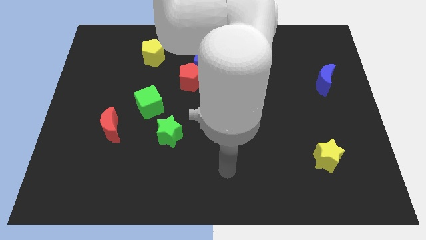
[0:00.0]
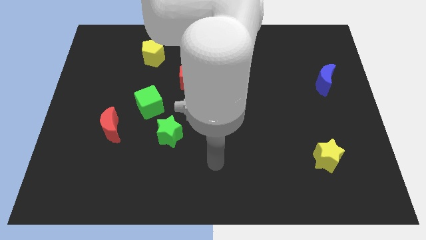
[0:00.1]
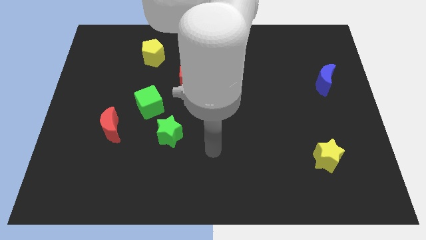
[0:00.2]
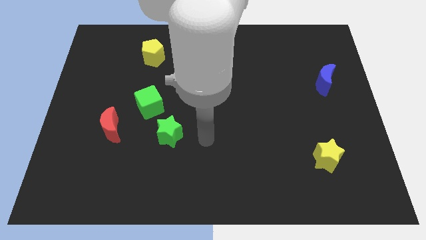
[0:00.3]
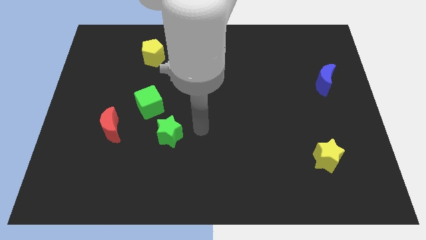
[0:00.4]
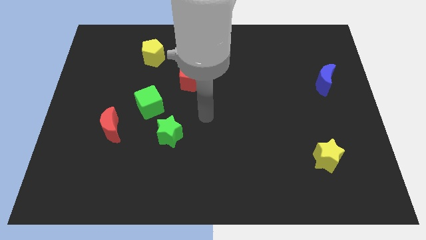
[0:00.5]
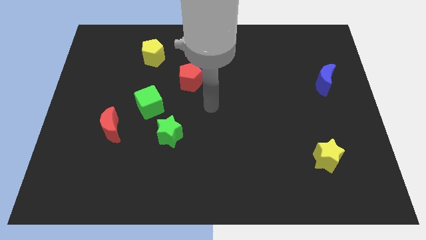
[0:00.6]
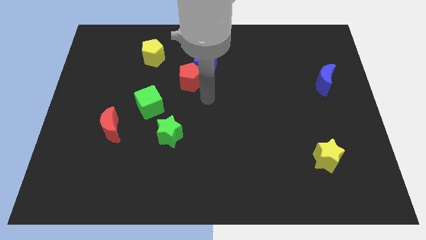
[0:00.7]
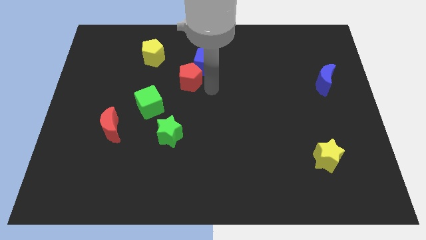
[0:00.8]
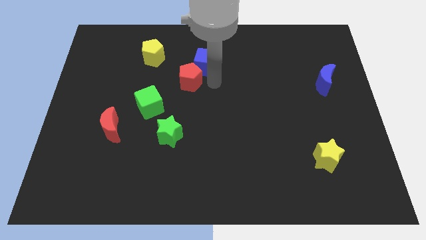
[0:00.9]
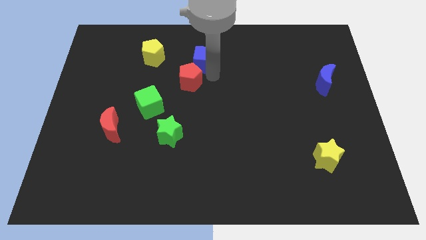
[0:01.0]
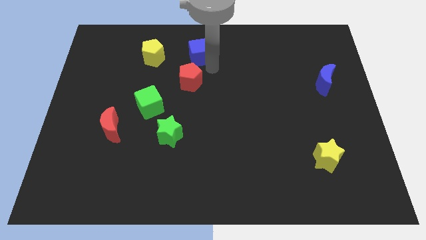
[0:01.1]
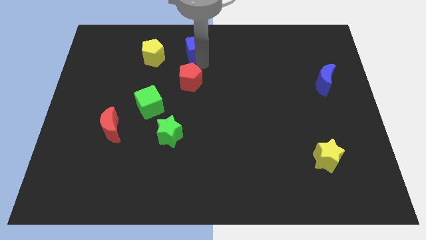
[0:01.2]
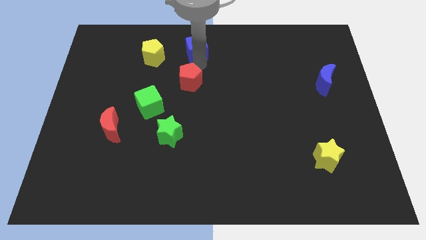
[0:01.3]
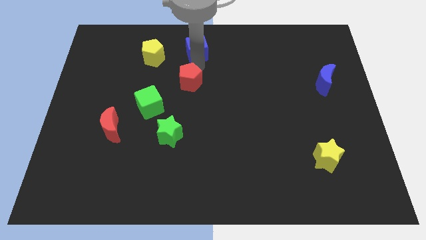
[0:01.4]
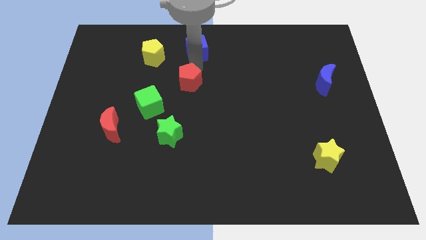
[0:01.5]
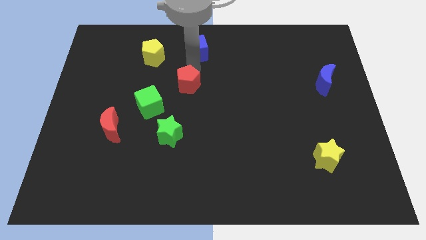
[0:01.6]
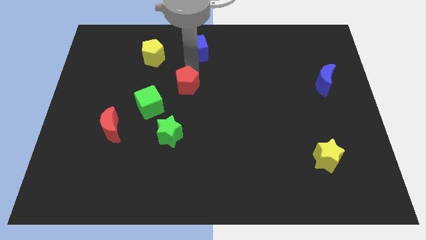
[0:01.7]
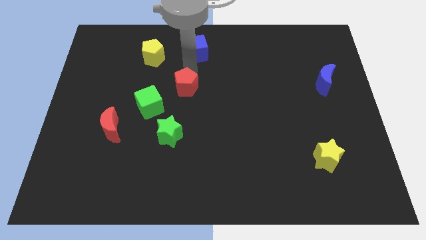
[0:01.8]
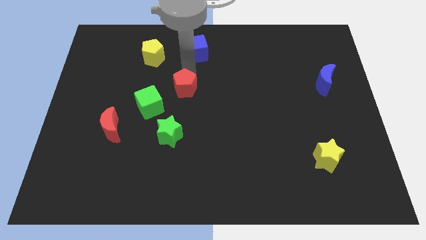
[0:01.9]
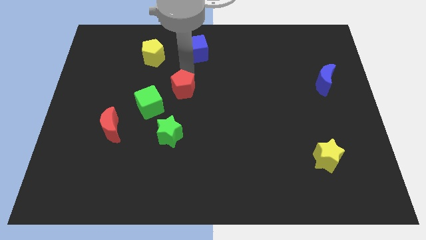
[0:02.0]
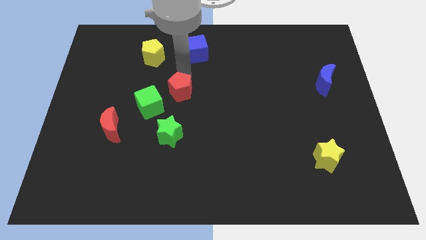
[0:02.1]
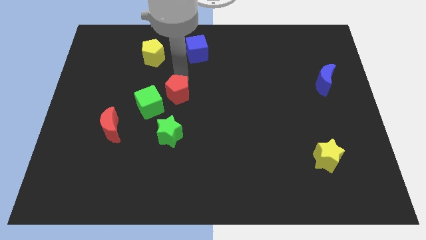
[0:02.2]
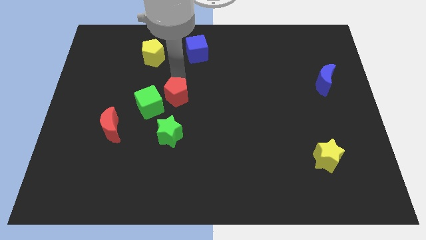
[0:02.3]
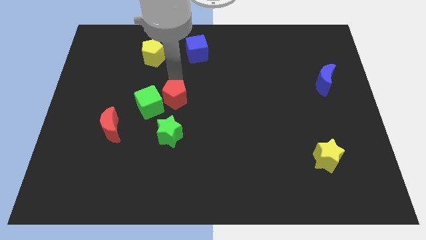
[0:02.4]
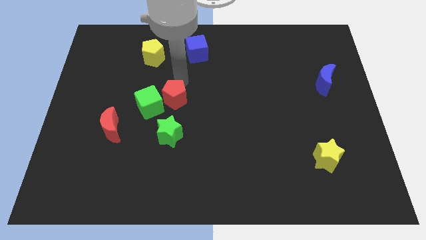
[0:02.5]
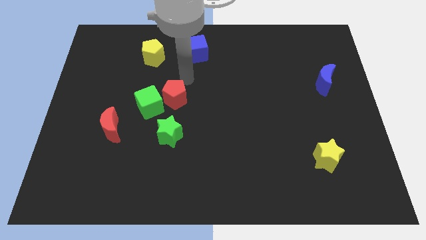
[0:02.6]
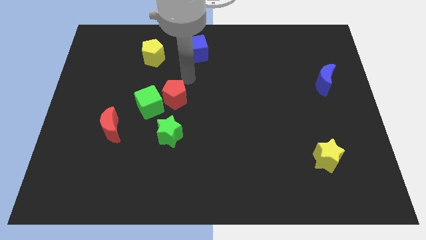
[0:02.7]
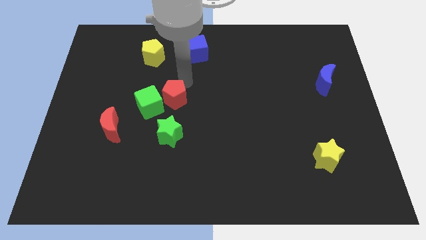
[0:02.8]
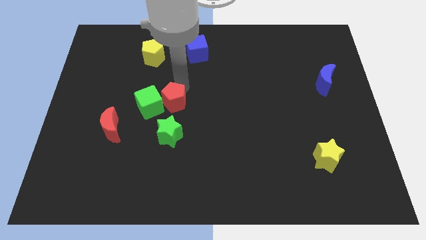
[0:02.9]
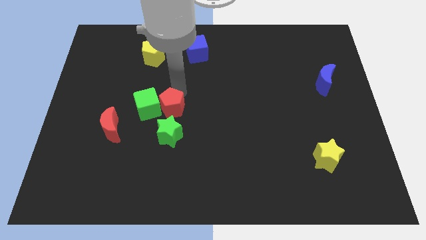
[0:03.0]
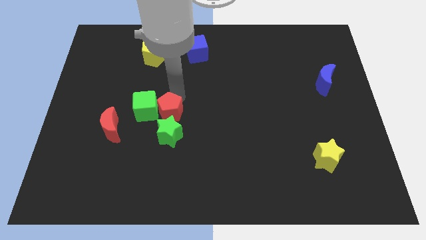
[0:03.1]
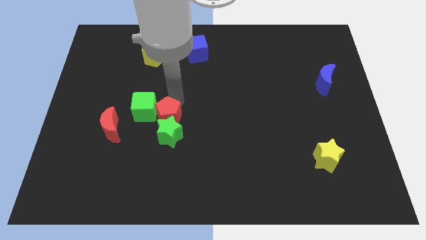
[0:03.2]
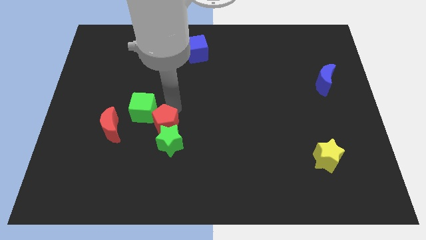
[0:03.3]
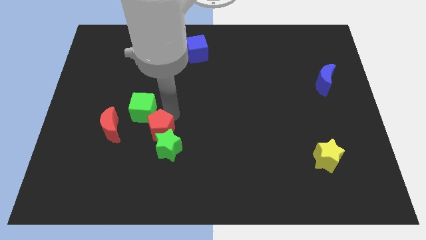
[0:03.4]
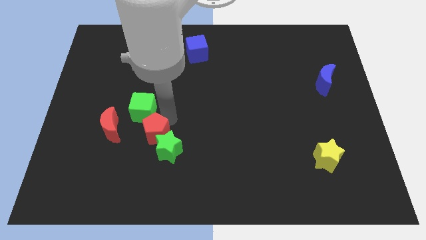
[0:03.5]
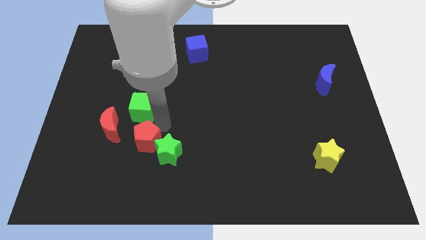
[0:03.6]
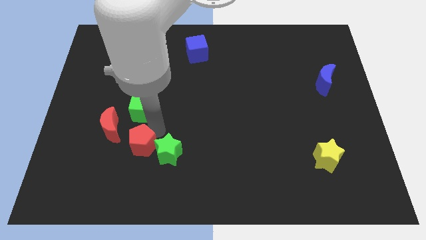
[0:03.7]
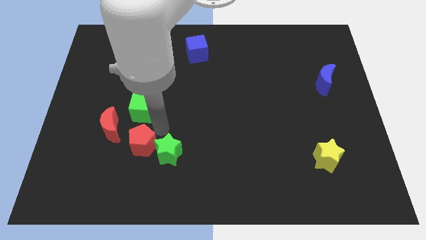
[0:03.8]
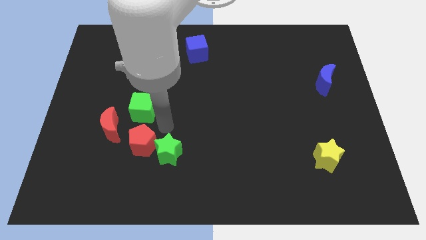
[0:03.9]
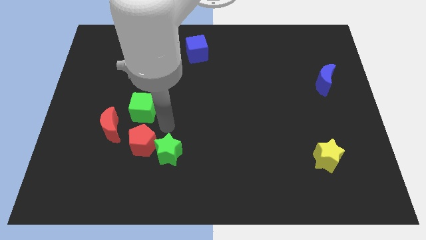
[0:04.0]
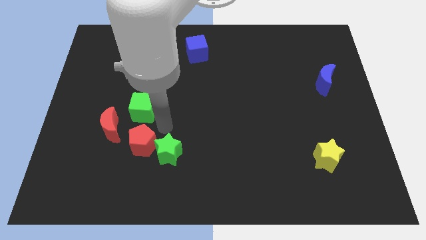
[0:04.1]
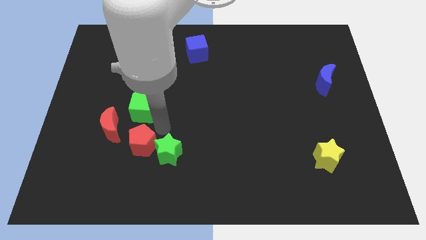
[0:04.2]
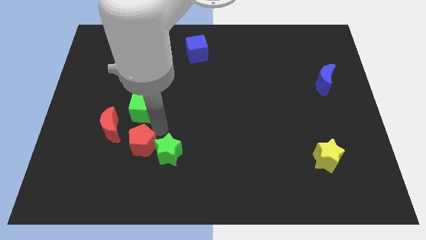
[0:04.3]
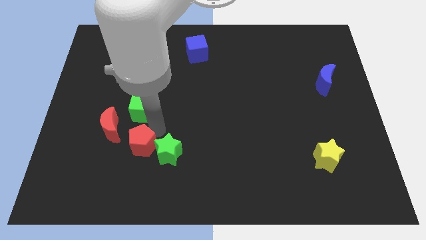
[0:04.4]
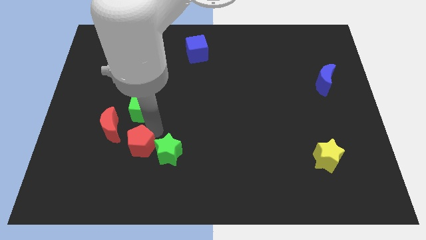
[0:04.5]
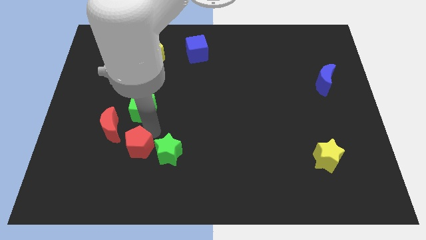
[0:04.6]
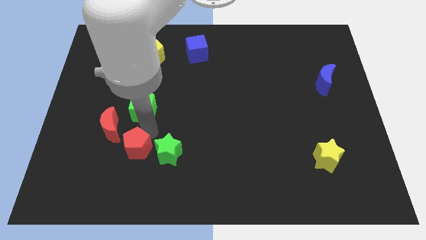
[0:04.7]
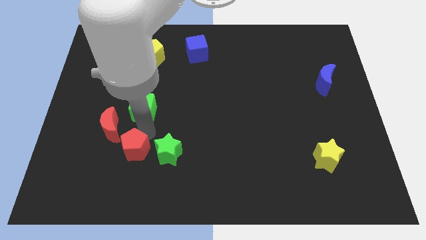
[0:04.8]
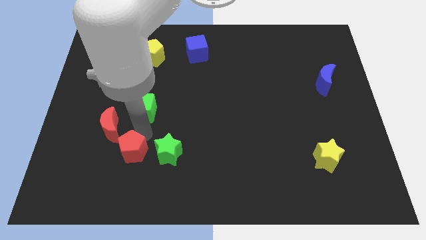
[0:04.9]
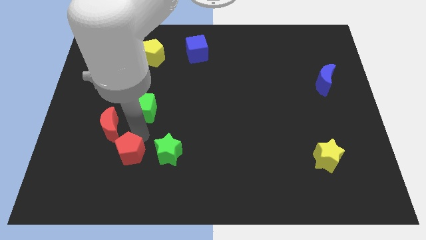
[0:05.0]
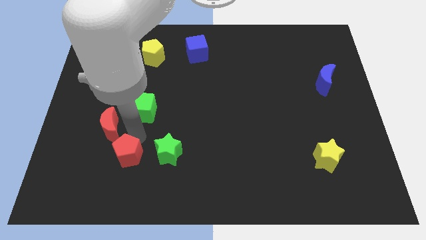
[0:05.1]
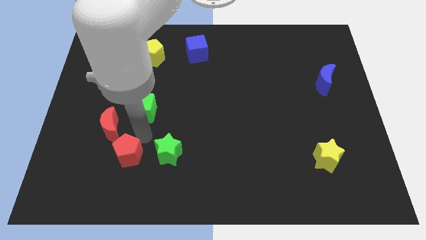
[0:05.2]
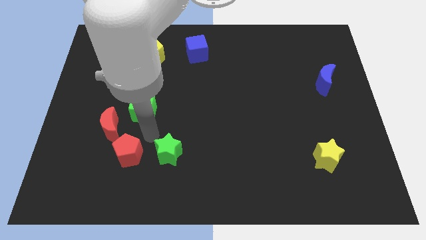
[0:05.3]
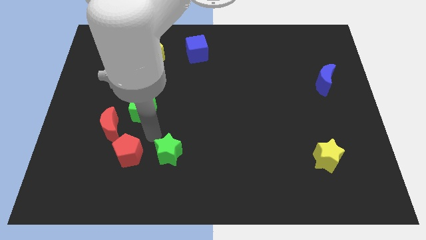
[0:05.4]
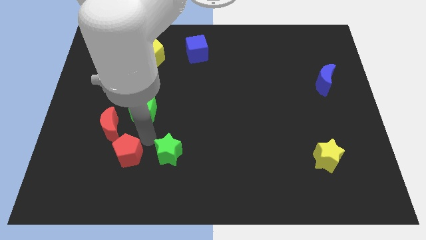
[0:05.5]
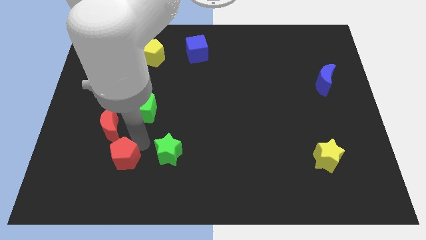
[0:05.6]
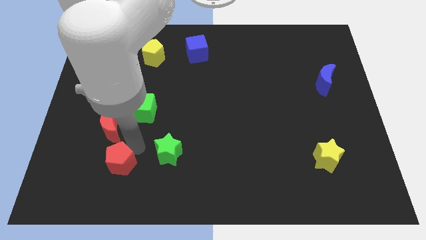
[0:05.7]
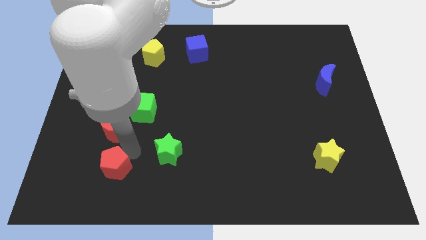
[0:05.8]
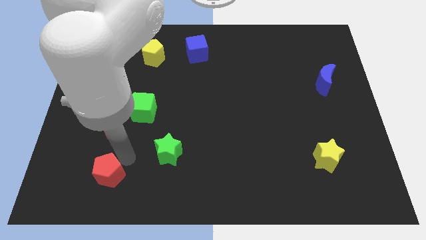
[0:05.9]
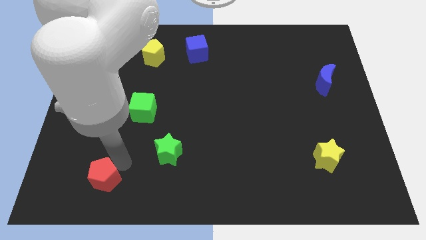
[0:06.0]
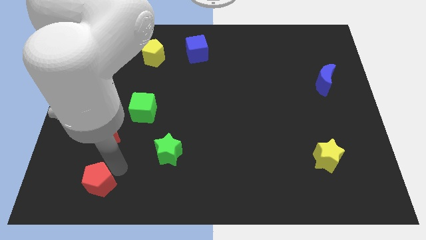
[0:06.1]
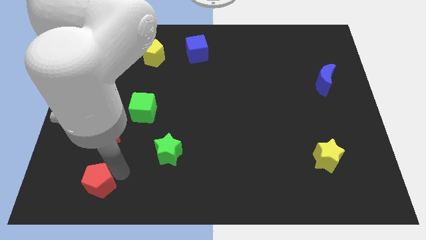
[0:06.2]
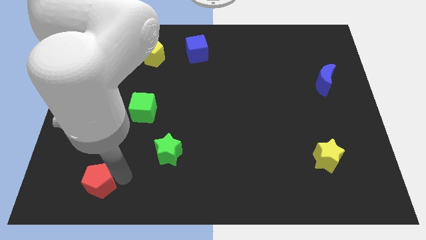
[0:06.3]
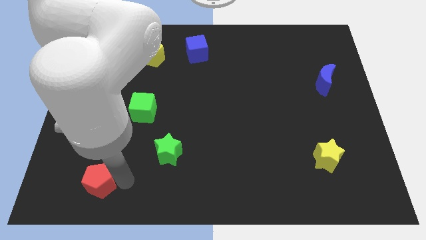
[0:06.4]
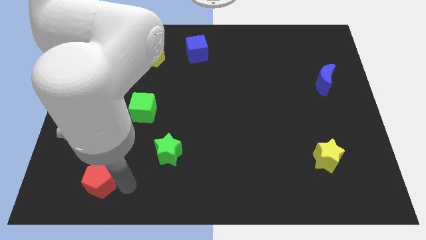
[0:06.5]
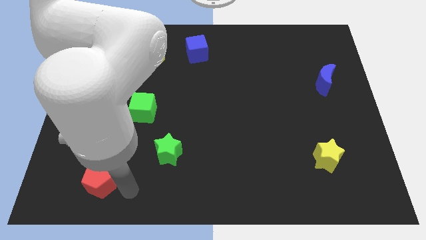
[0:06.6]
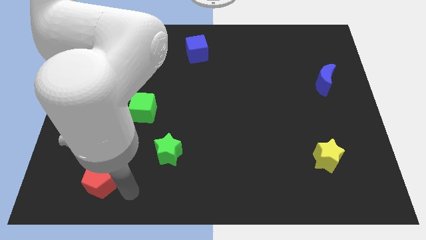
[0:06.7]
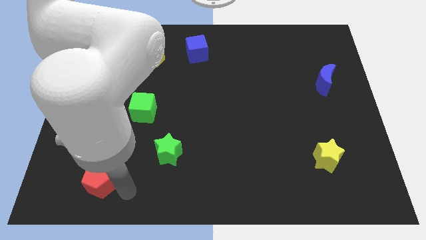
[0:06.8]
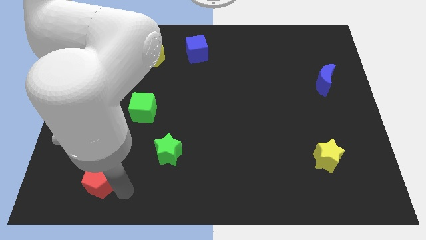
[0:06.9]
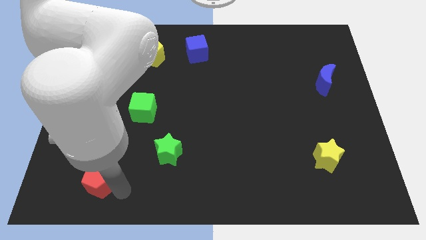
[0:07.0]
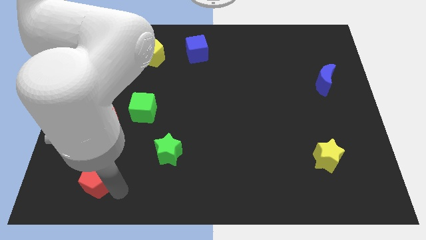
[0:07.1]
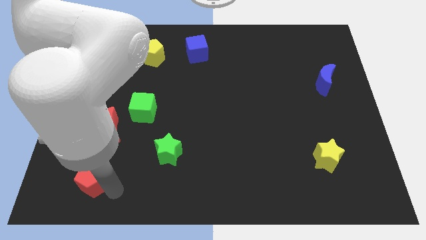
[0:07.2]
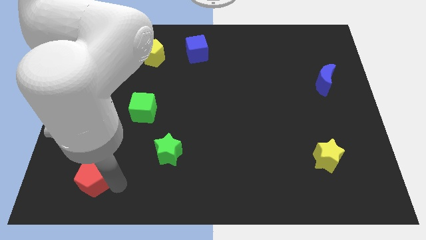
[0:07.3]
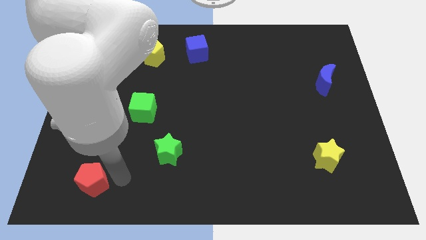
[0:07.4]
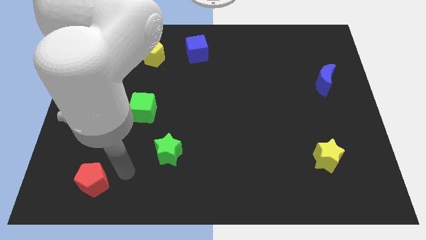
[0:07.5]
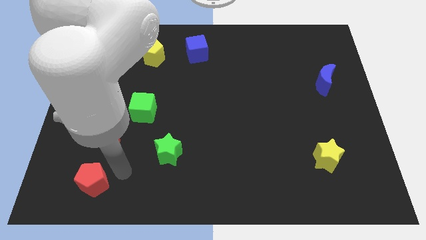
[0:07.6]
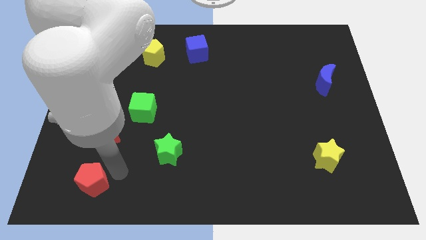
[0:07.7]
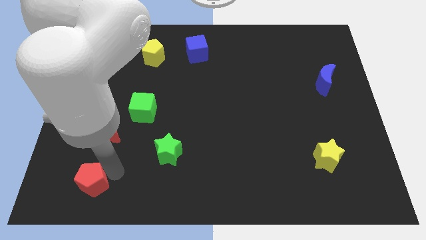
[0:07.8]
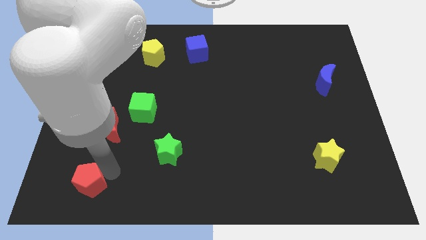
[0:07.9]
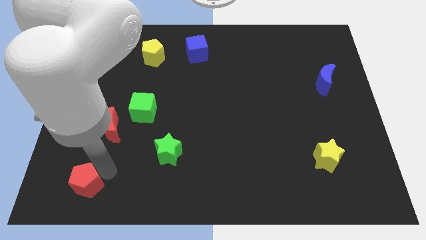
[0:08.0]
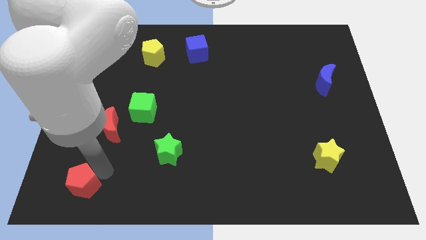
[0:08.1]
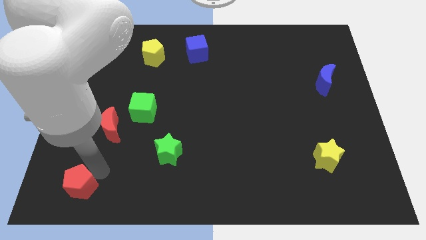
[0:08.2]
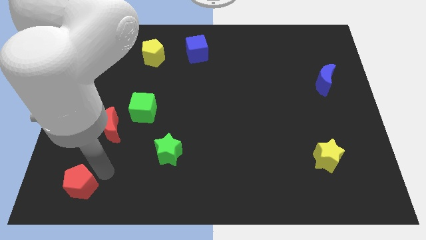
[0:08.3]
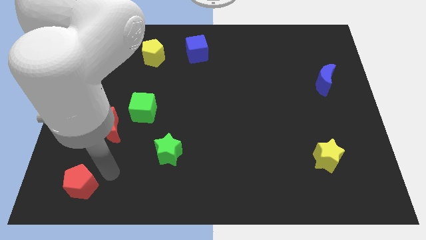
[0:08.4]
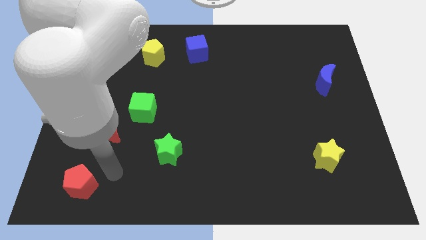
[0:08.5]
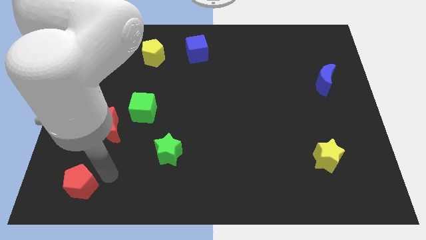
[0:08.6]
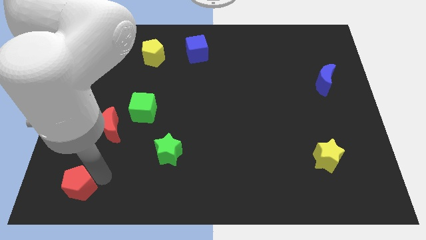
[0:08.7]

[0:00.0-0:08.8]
slide the red pentagon to the bottom left of the board
